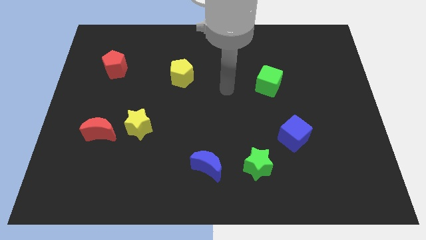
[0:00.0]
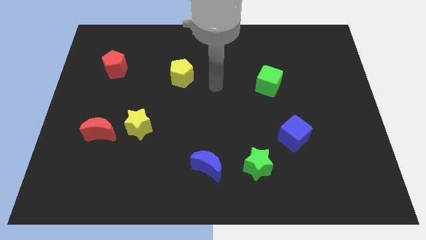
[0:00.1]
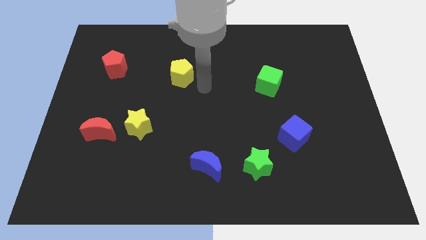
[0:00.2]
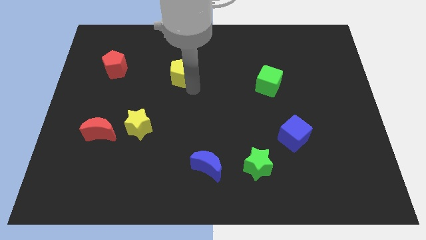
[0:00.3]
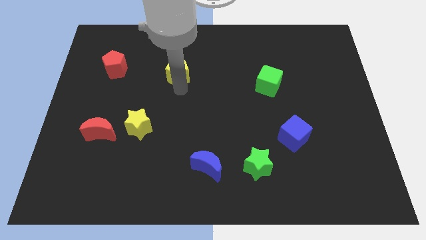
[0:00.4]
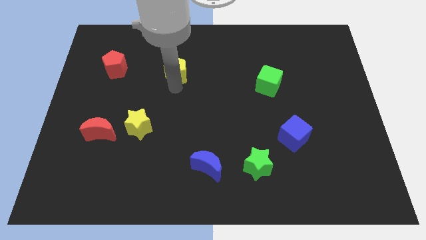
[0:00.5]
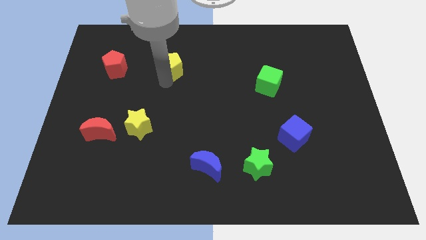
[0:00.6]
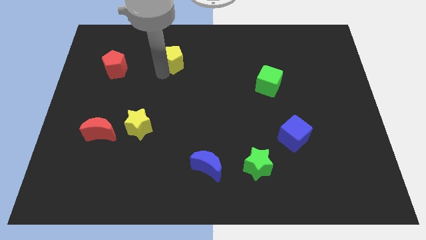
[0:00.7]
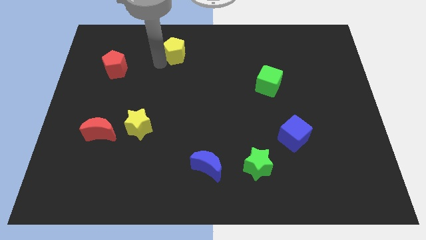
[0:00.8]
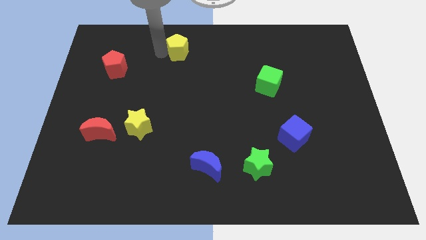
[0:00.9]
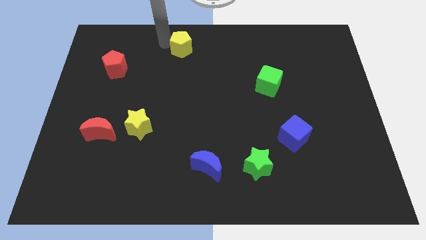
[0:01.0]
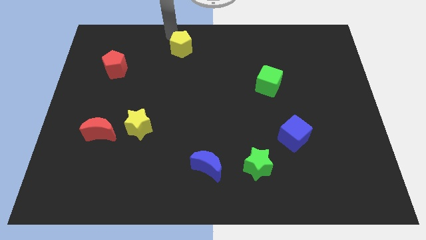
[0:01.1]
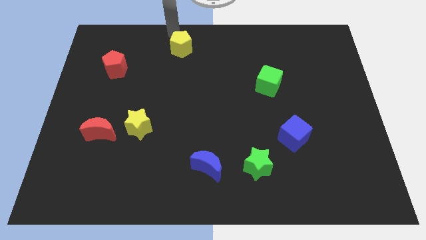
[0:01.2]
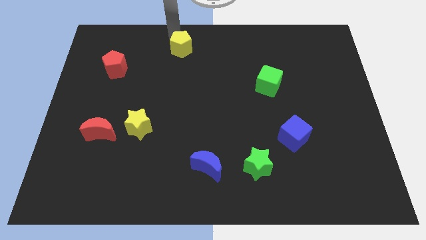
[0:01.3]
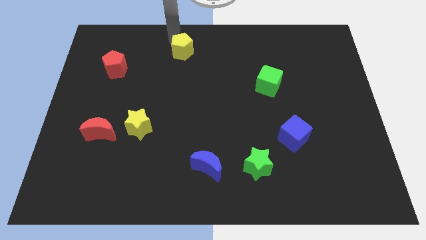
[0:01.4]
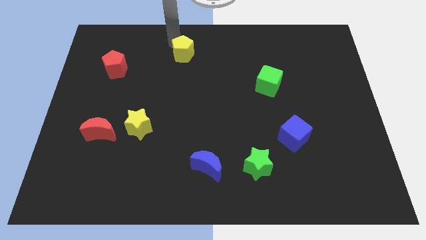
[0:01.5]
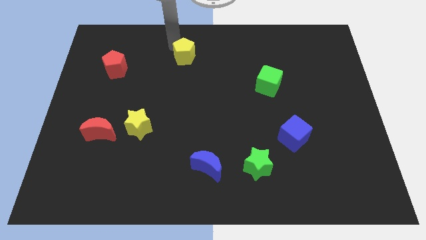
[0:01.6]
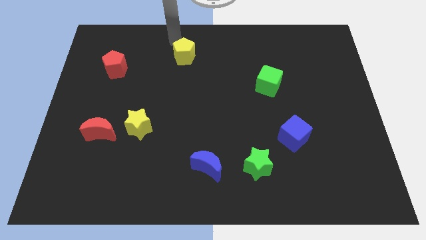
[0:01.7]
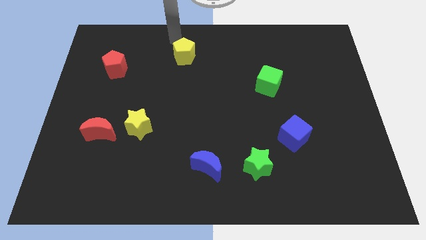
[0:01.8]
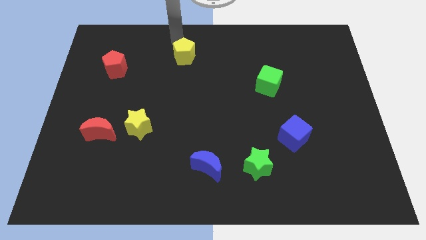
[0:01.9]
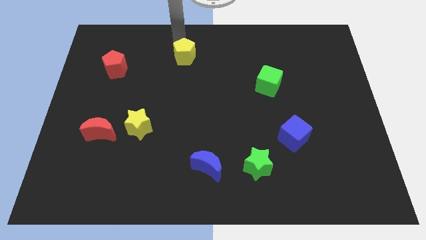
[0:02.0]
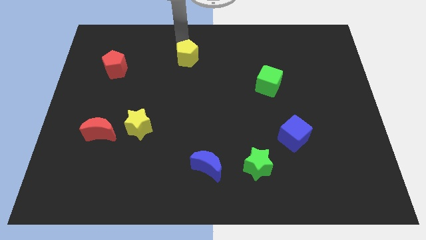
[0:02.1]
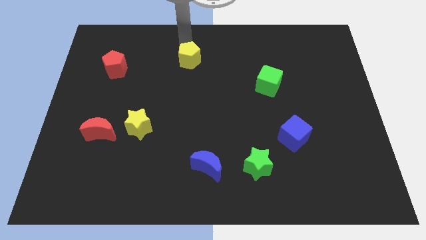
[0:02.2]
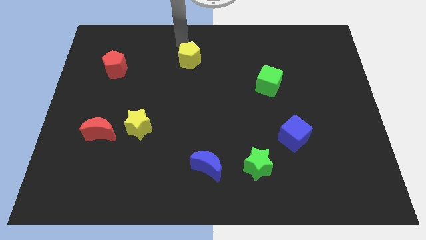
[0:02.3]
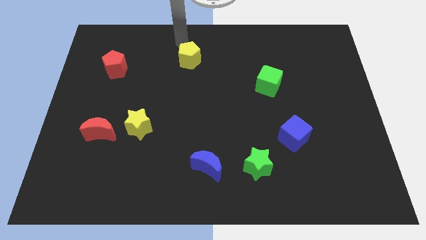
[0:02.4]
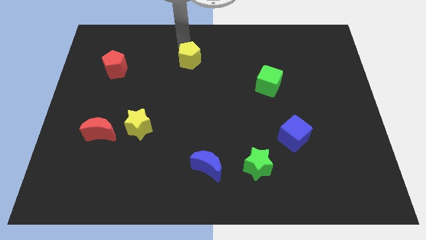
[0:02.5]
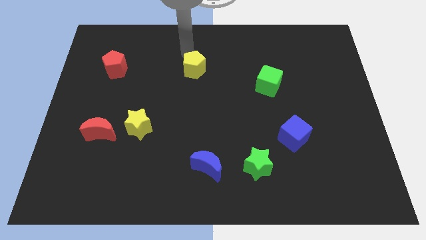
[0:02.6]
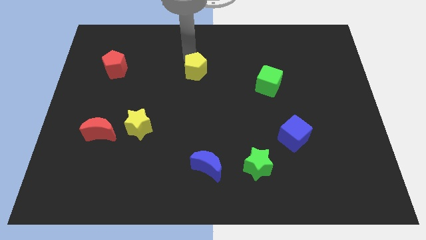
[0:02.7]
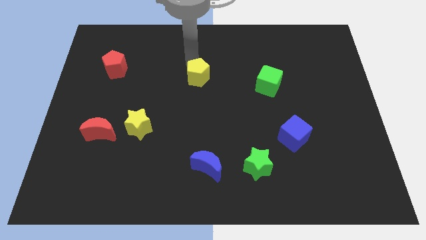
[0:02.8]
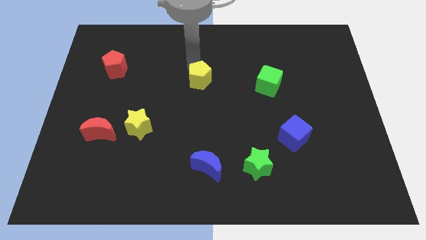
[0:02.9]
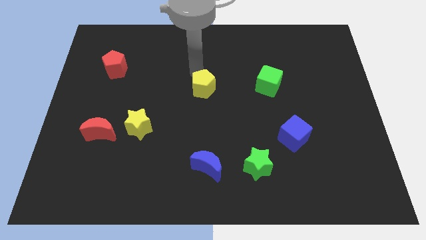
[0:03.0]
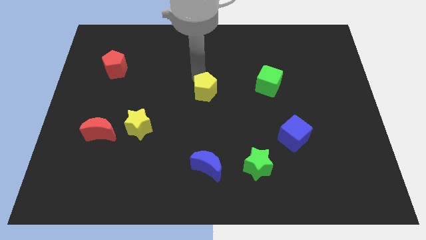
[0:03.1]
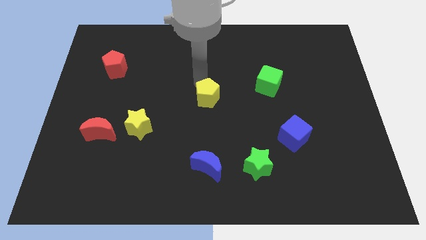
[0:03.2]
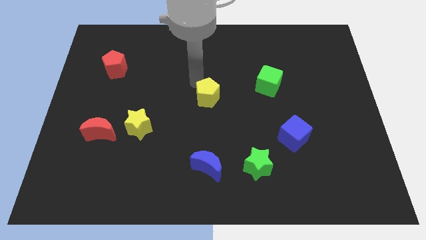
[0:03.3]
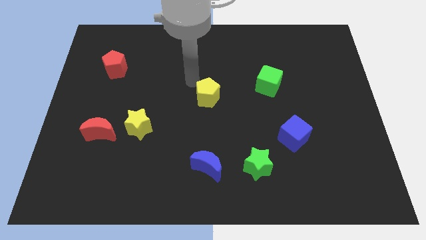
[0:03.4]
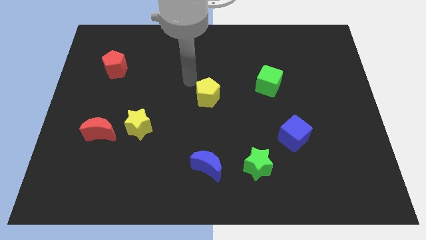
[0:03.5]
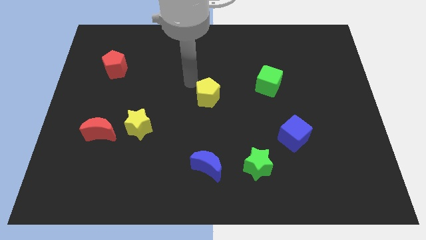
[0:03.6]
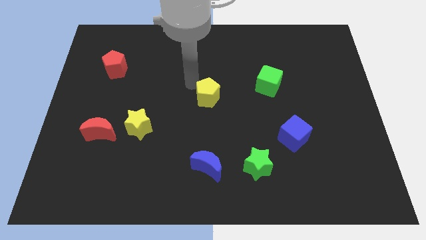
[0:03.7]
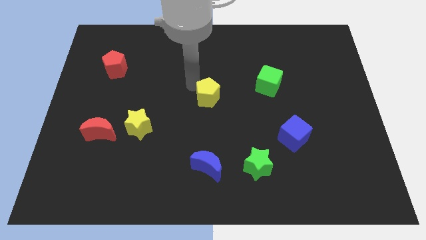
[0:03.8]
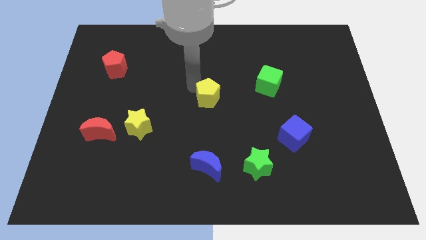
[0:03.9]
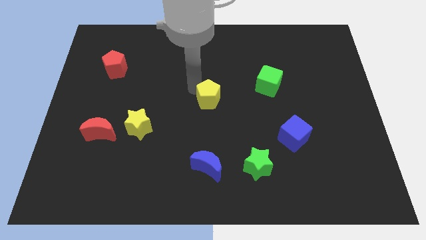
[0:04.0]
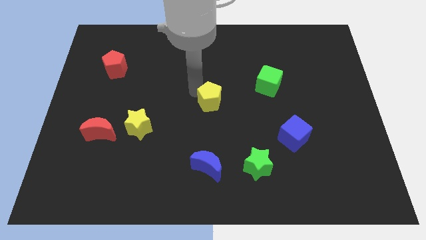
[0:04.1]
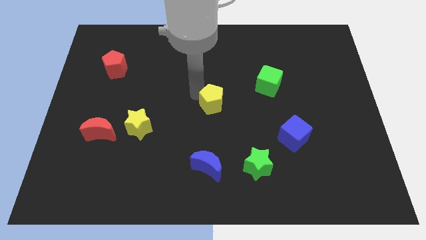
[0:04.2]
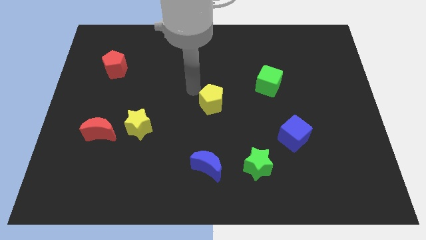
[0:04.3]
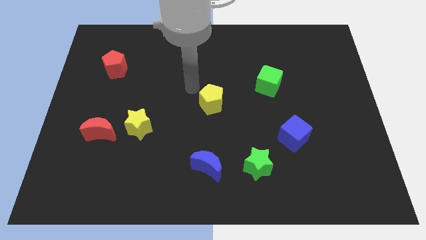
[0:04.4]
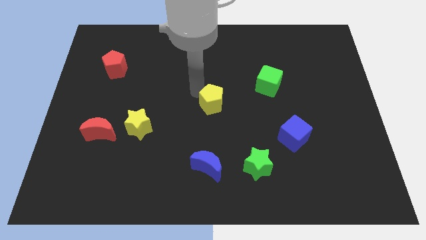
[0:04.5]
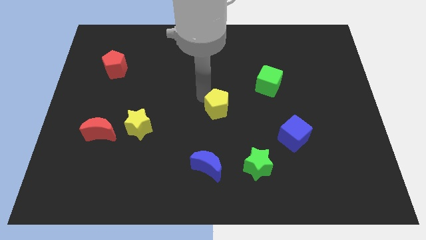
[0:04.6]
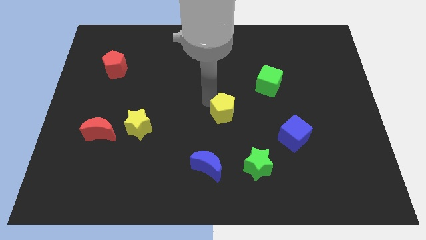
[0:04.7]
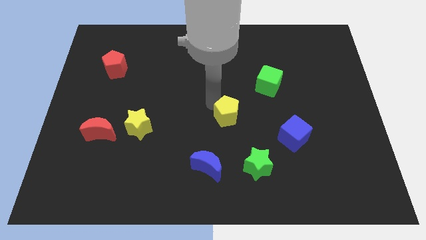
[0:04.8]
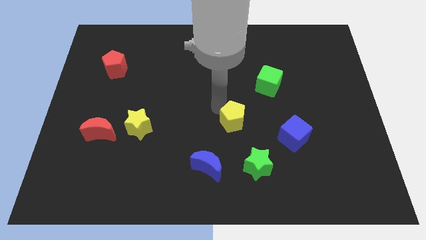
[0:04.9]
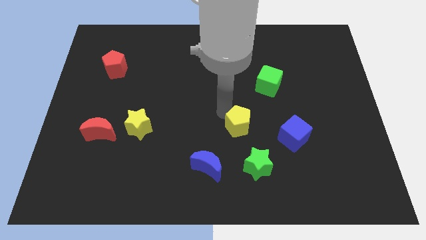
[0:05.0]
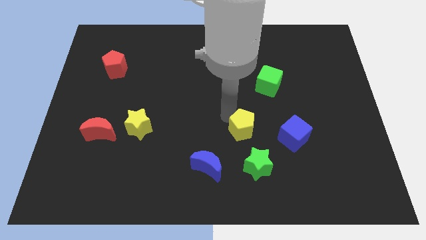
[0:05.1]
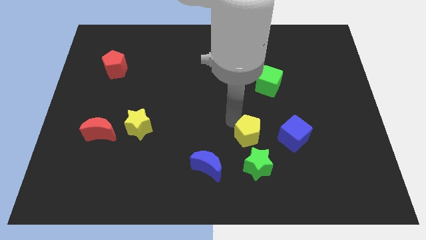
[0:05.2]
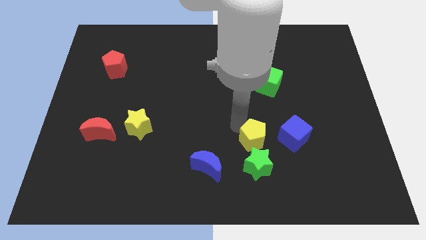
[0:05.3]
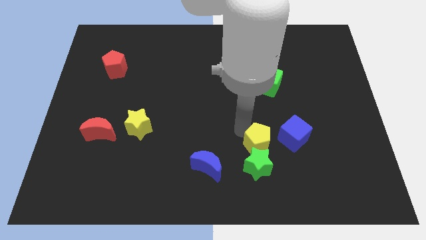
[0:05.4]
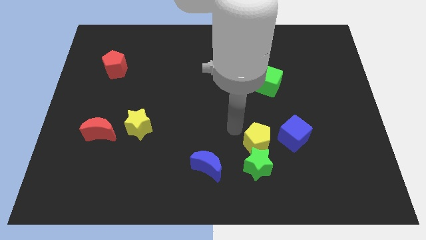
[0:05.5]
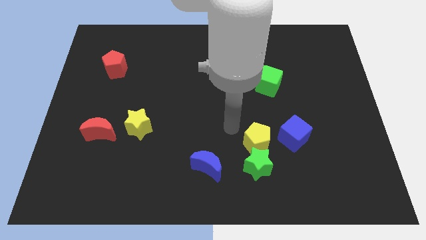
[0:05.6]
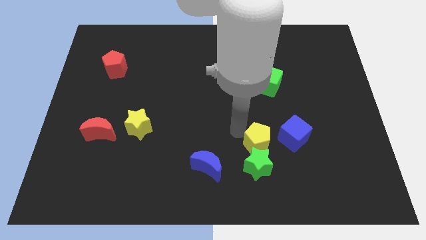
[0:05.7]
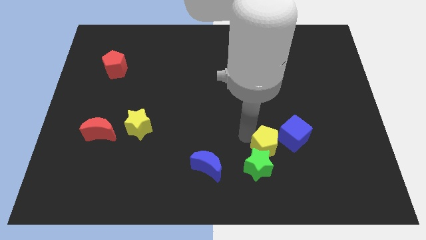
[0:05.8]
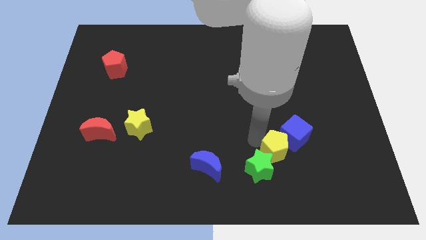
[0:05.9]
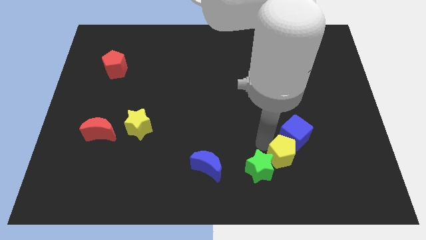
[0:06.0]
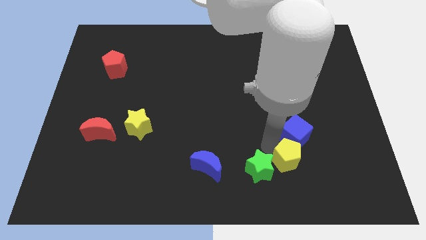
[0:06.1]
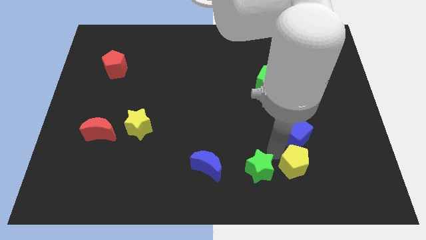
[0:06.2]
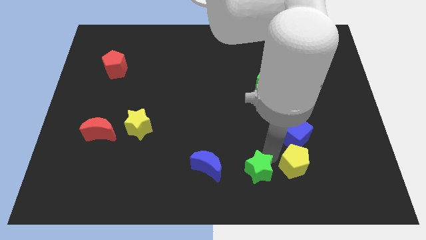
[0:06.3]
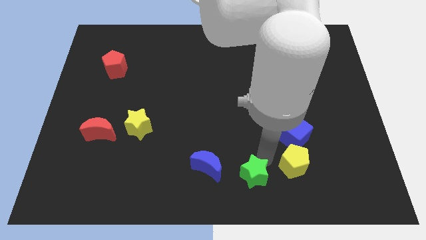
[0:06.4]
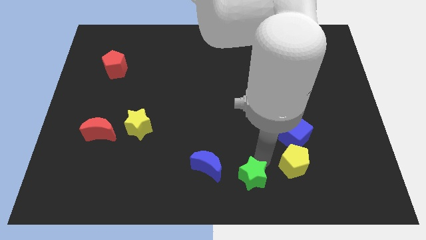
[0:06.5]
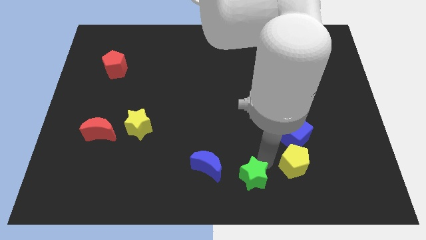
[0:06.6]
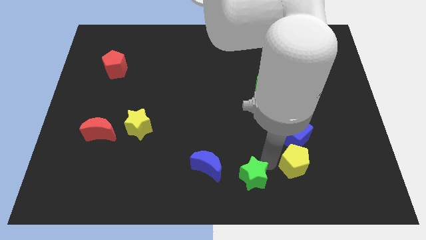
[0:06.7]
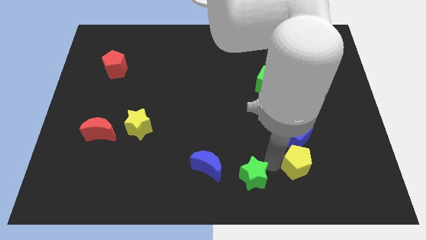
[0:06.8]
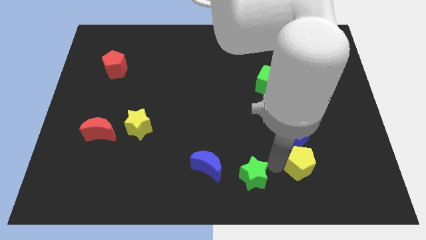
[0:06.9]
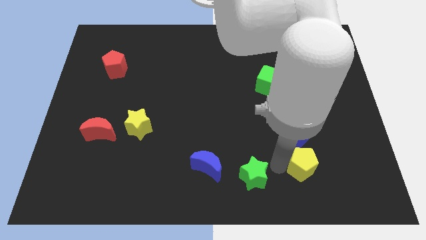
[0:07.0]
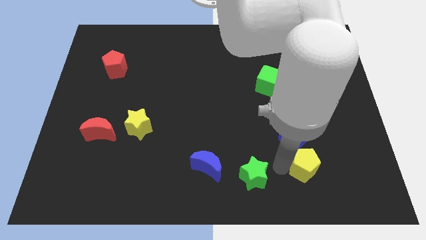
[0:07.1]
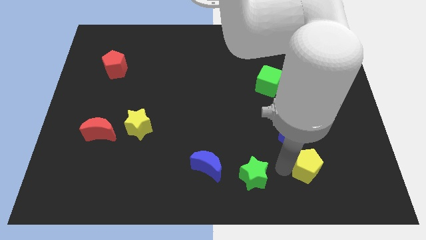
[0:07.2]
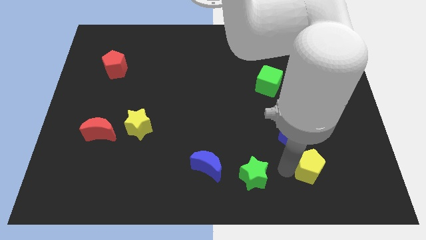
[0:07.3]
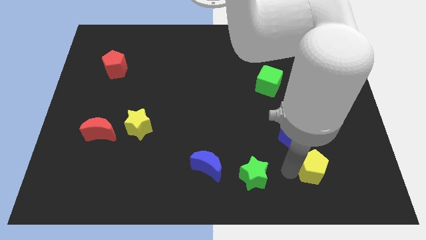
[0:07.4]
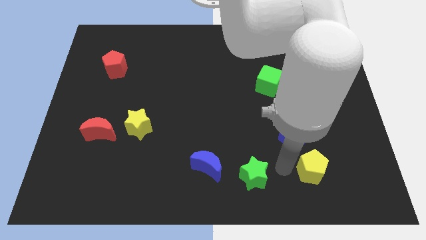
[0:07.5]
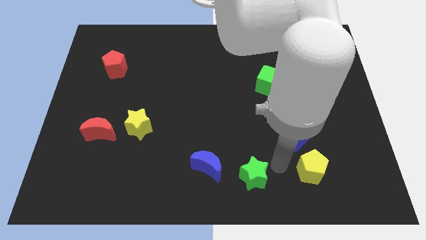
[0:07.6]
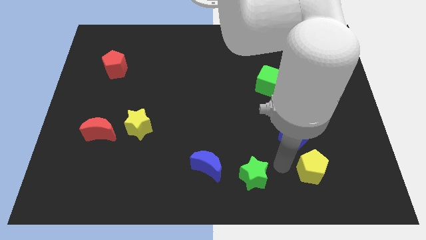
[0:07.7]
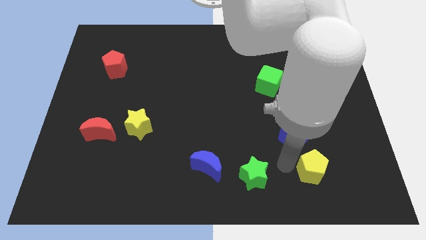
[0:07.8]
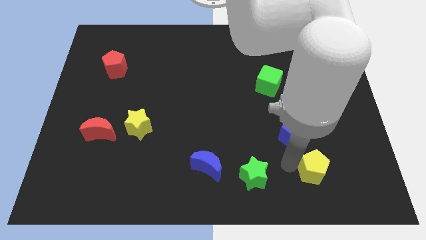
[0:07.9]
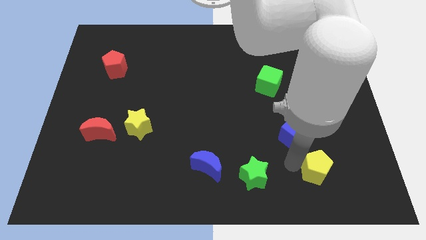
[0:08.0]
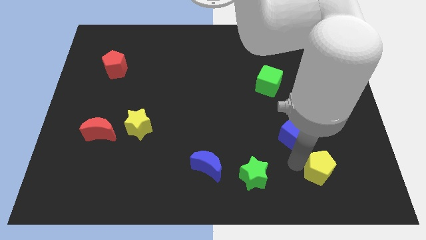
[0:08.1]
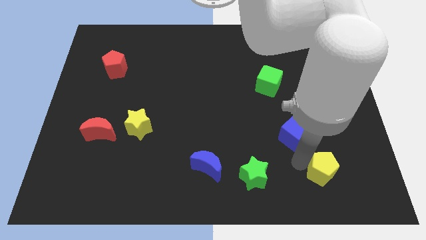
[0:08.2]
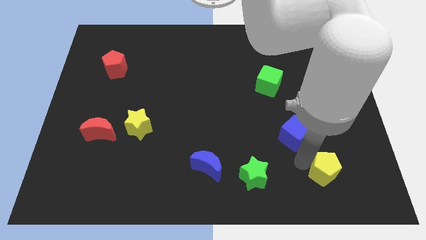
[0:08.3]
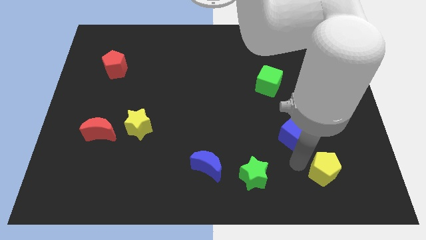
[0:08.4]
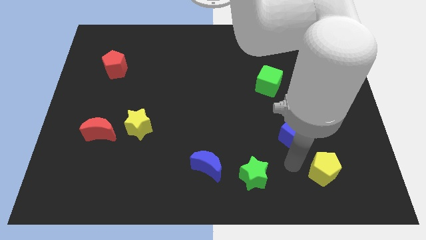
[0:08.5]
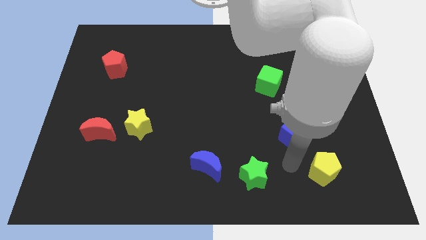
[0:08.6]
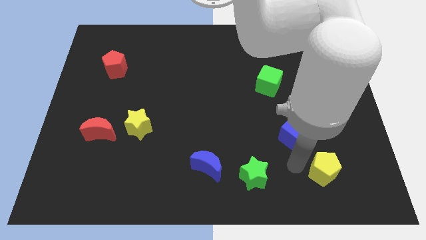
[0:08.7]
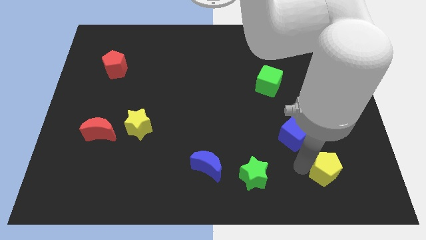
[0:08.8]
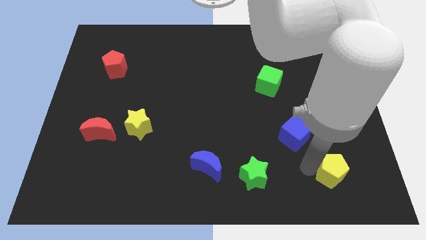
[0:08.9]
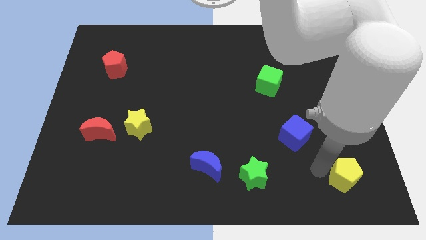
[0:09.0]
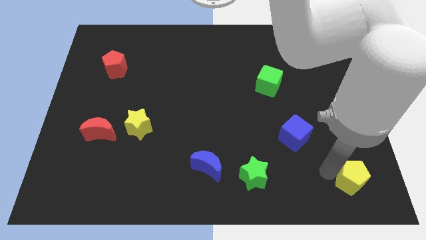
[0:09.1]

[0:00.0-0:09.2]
push the yellow pentagon to the lower right corner
